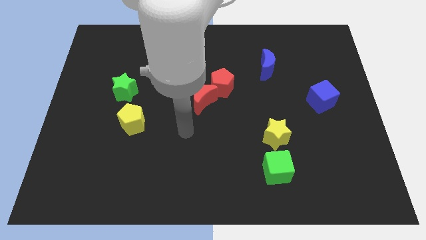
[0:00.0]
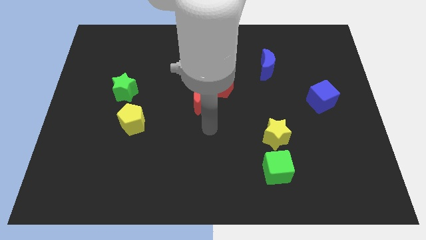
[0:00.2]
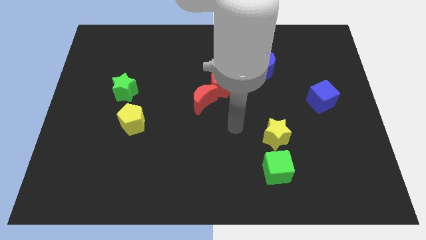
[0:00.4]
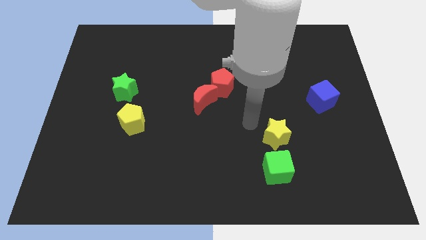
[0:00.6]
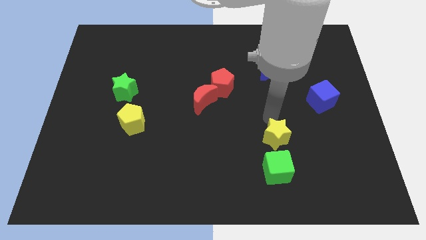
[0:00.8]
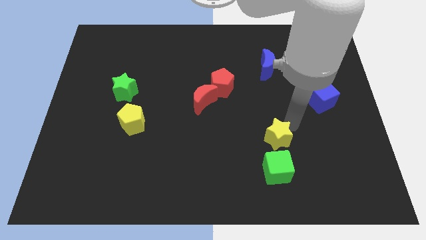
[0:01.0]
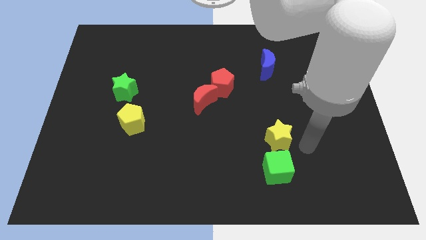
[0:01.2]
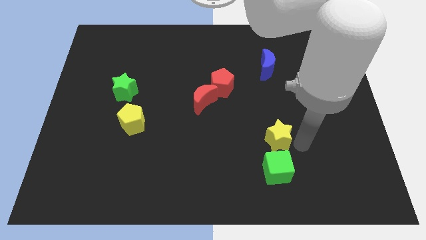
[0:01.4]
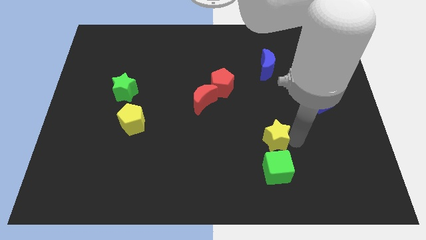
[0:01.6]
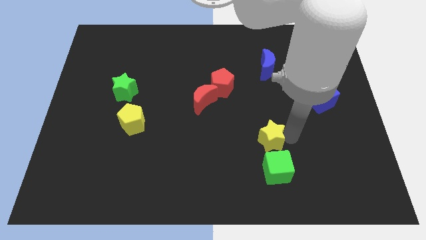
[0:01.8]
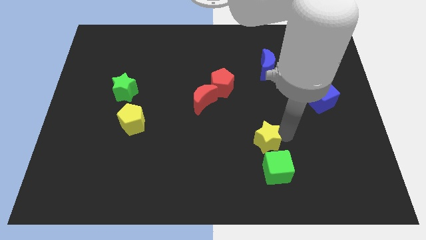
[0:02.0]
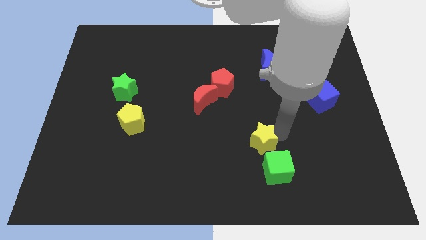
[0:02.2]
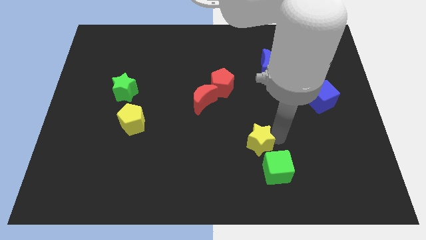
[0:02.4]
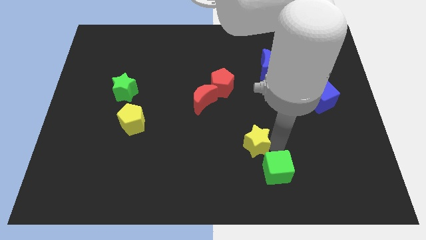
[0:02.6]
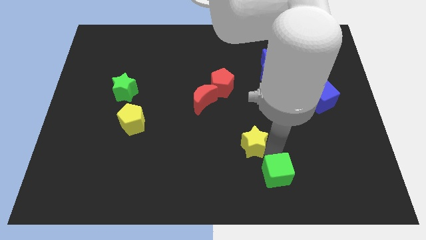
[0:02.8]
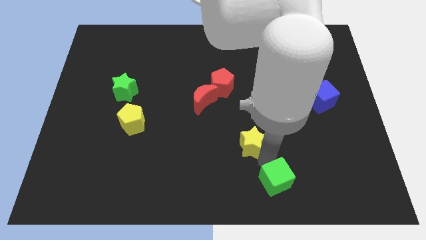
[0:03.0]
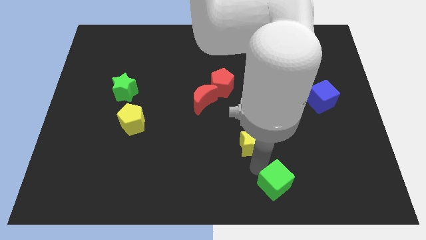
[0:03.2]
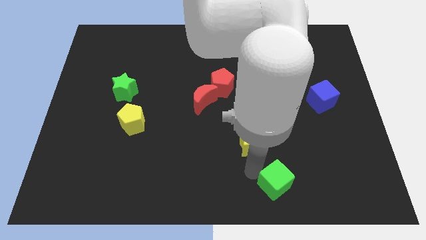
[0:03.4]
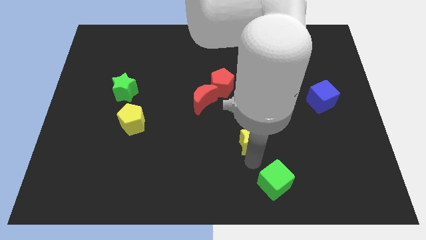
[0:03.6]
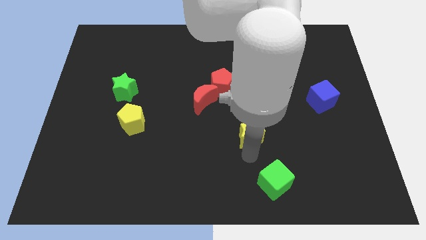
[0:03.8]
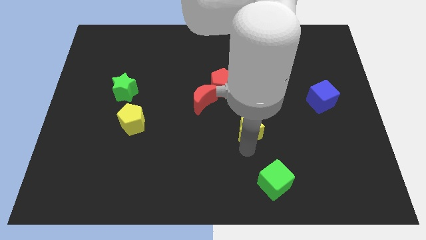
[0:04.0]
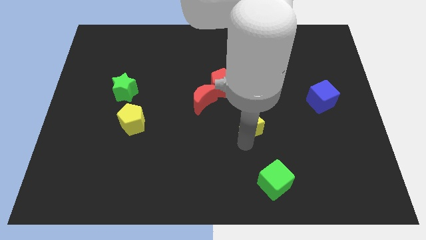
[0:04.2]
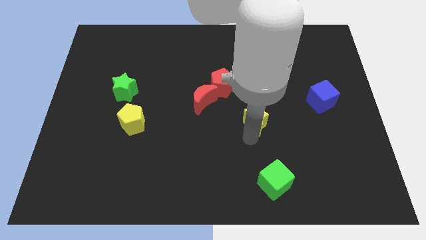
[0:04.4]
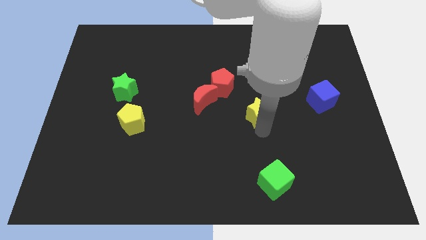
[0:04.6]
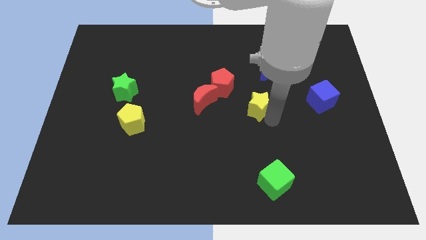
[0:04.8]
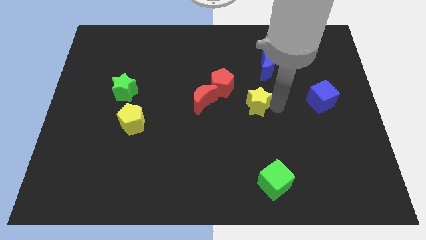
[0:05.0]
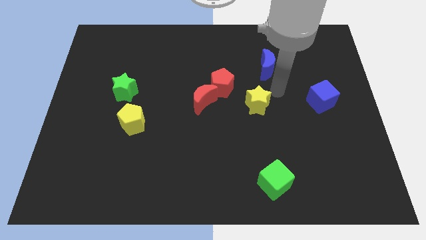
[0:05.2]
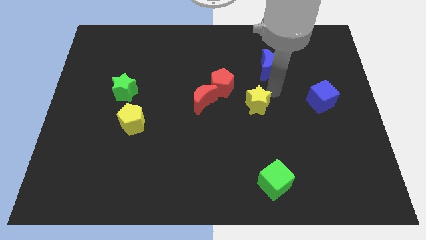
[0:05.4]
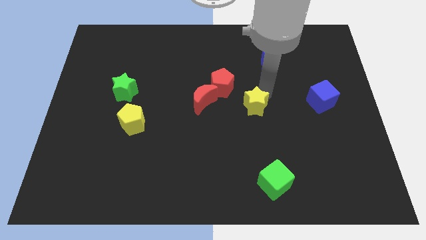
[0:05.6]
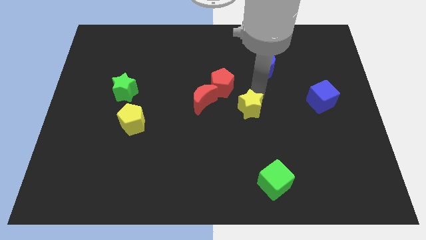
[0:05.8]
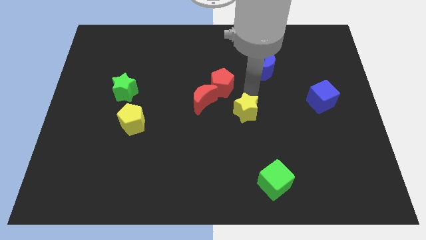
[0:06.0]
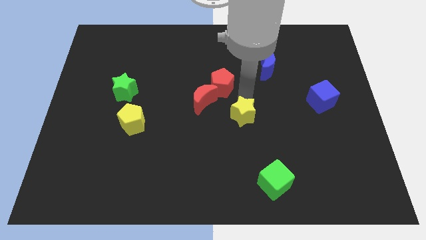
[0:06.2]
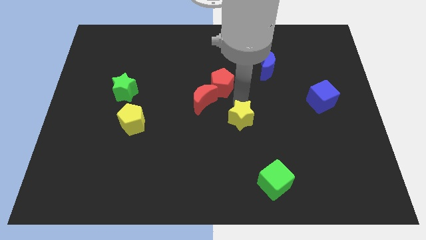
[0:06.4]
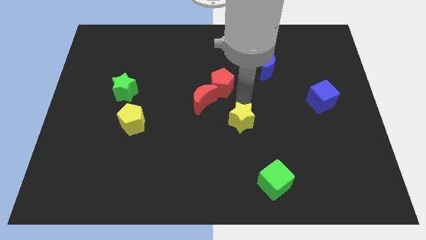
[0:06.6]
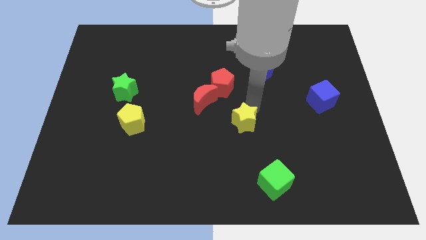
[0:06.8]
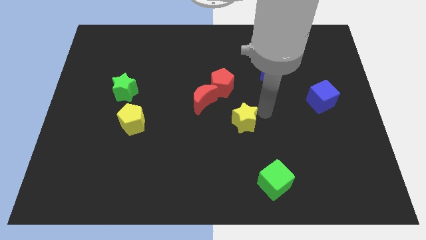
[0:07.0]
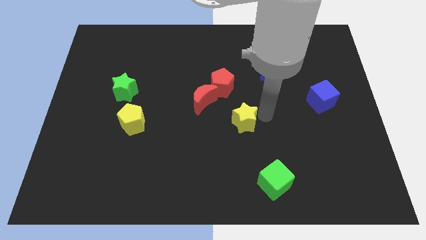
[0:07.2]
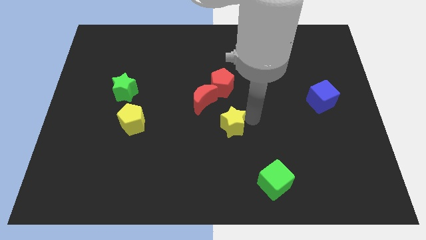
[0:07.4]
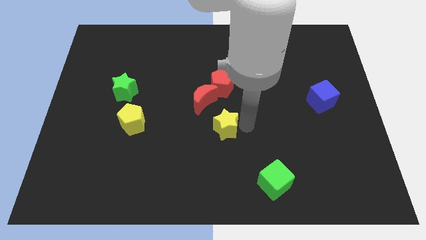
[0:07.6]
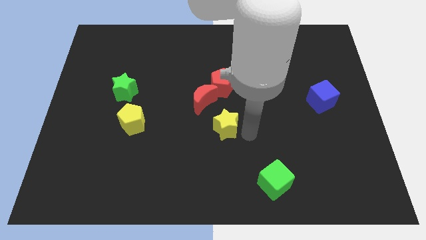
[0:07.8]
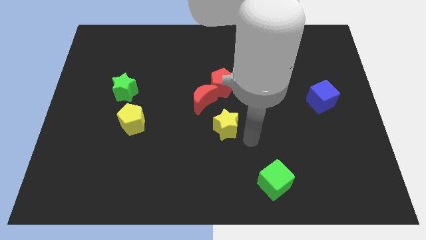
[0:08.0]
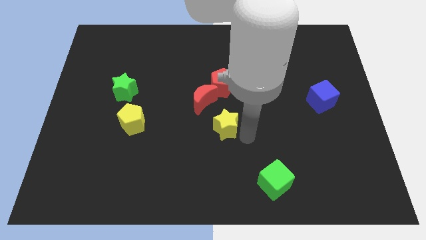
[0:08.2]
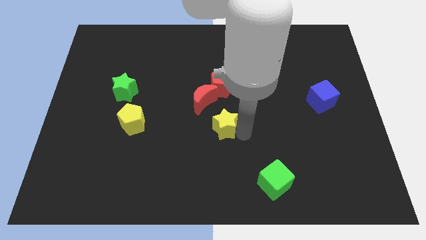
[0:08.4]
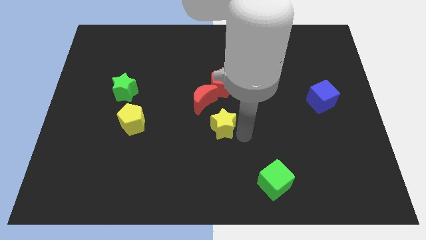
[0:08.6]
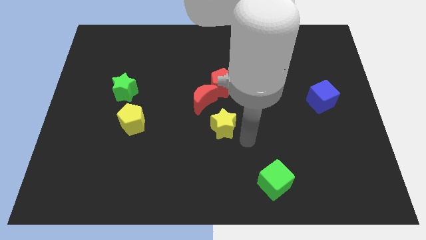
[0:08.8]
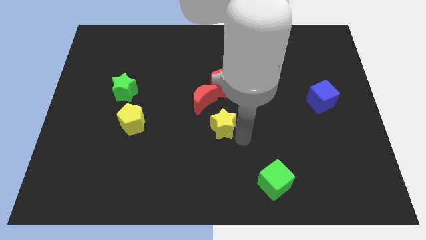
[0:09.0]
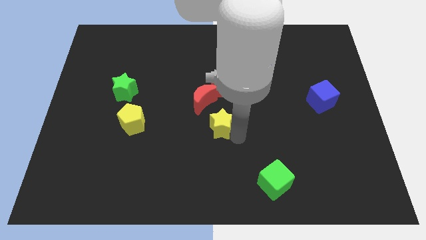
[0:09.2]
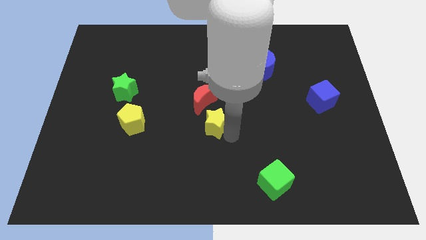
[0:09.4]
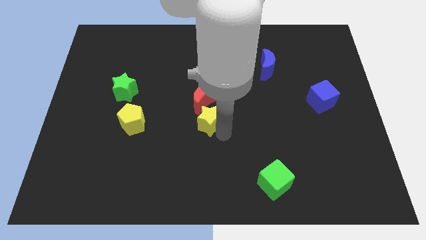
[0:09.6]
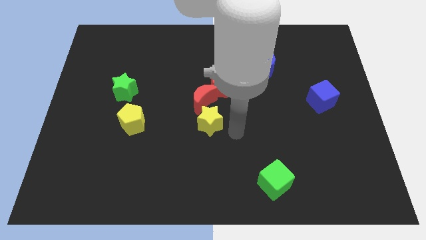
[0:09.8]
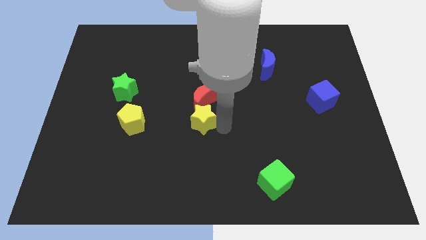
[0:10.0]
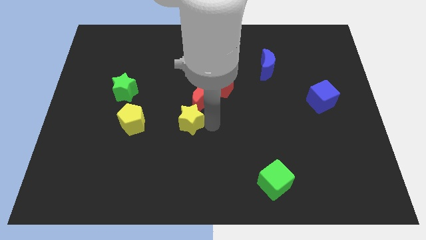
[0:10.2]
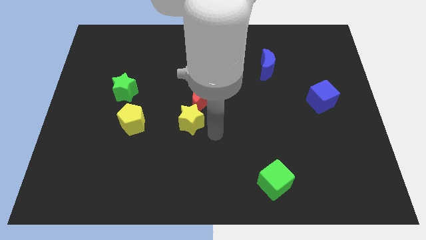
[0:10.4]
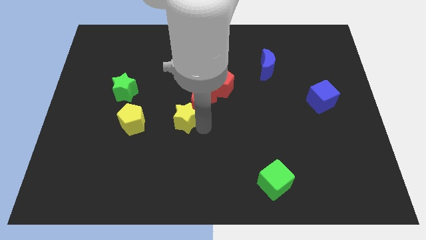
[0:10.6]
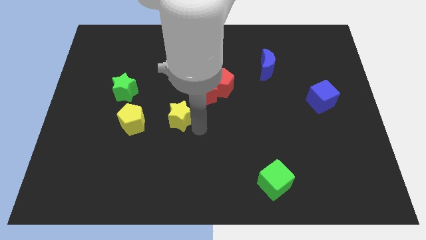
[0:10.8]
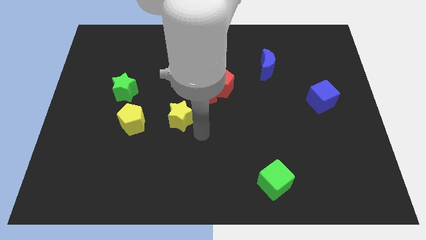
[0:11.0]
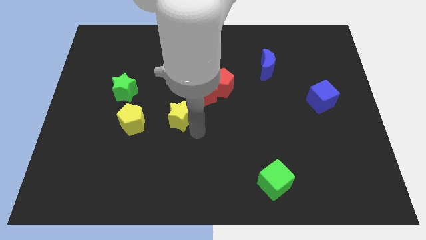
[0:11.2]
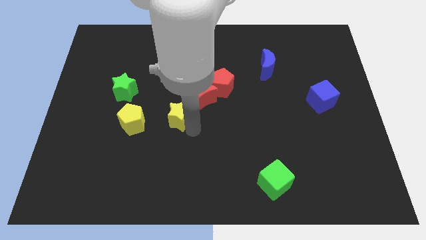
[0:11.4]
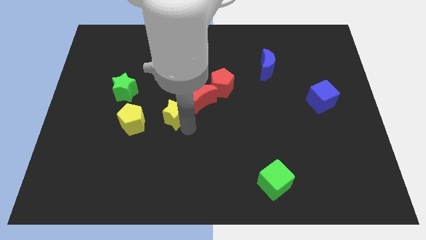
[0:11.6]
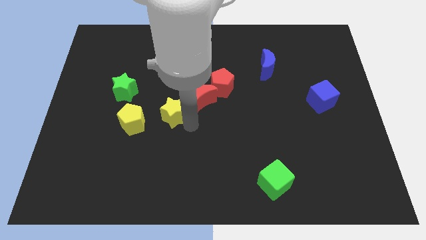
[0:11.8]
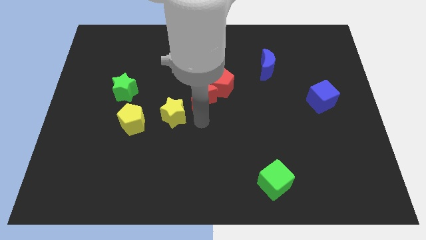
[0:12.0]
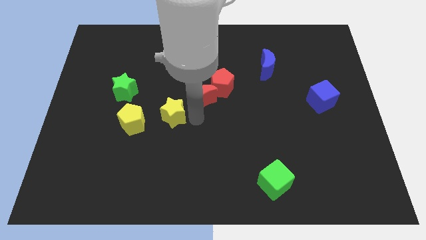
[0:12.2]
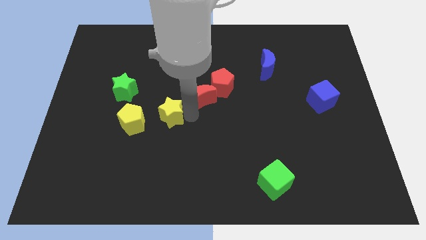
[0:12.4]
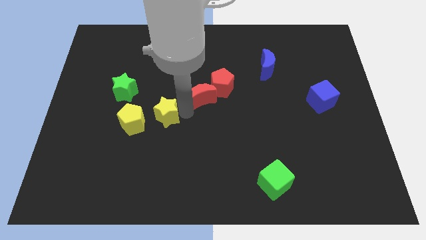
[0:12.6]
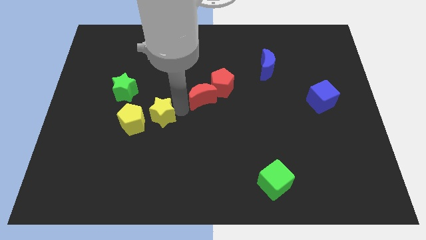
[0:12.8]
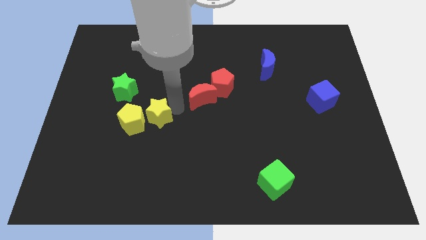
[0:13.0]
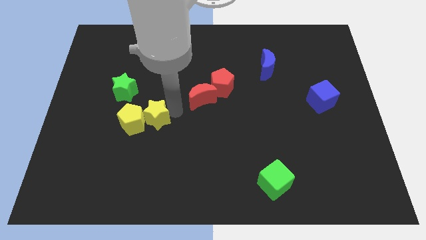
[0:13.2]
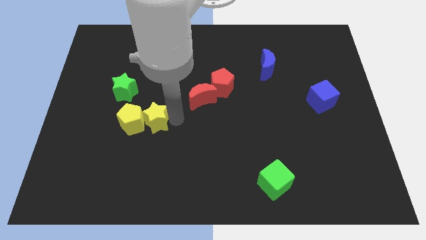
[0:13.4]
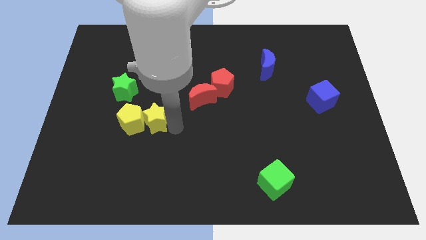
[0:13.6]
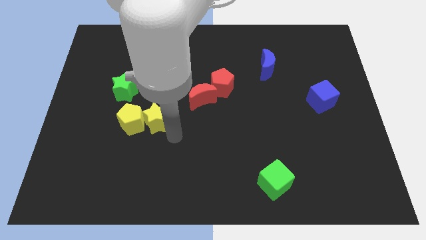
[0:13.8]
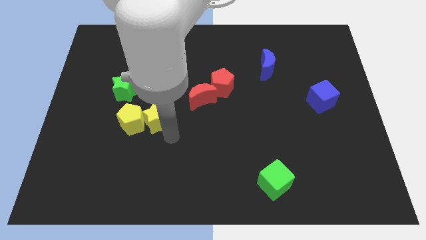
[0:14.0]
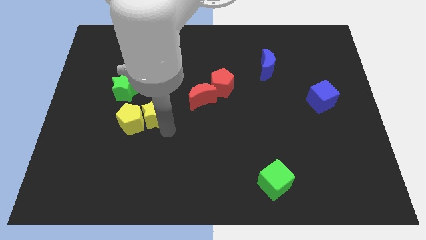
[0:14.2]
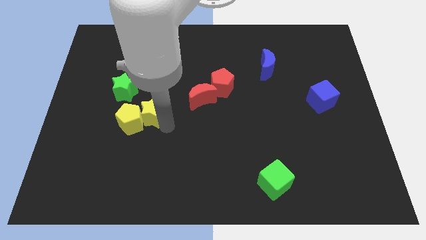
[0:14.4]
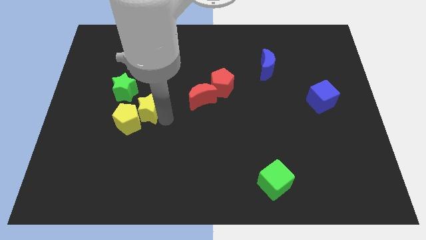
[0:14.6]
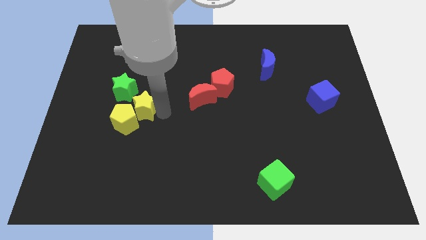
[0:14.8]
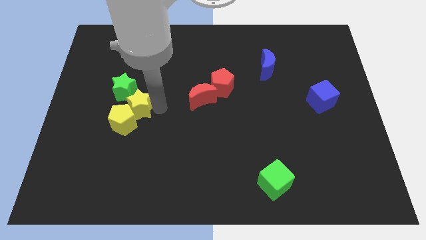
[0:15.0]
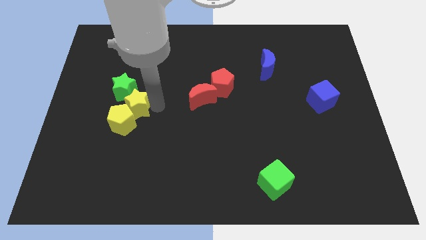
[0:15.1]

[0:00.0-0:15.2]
put the yellow star close to the green star
